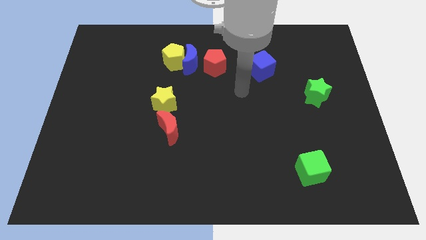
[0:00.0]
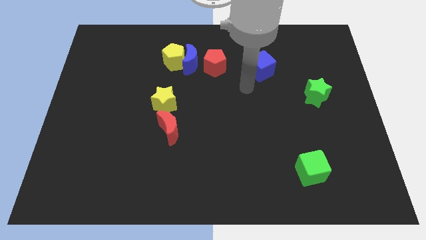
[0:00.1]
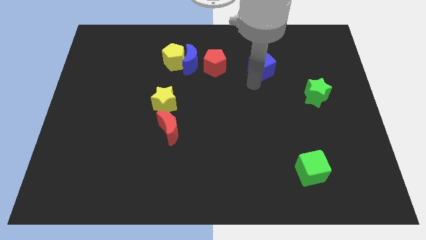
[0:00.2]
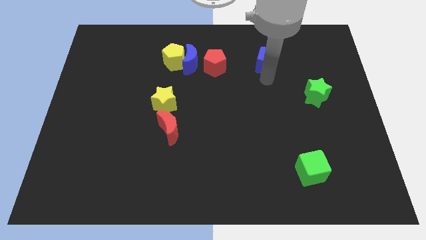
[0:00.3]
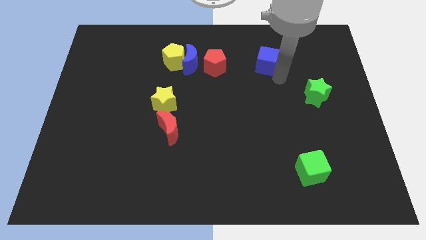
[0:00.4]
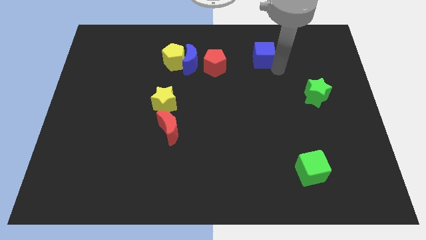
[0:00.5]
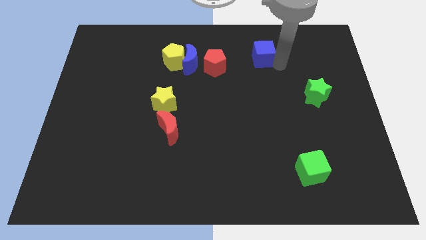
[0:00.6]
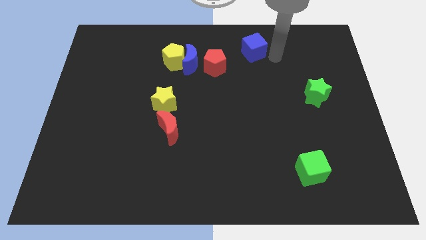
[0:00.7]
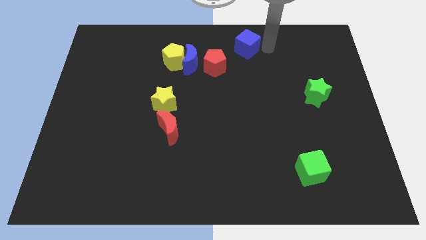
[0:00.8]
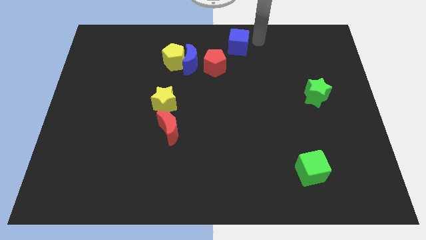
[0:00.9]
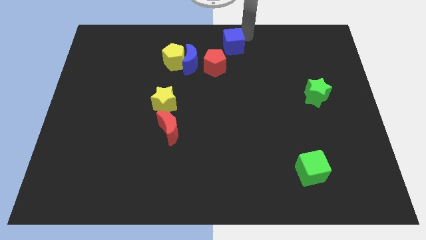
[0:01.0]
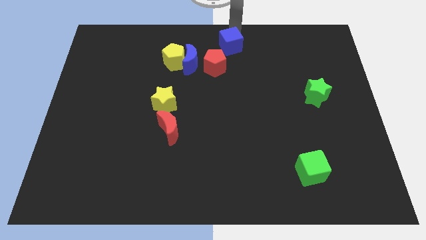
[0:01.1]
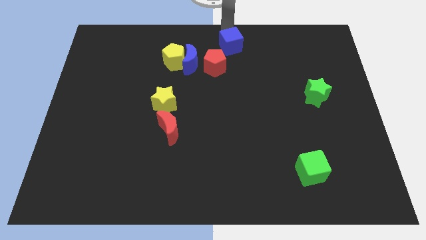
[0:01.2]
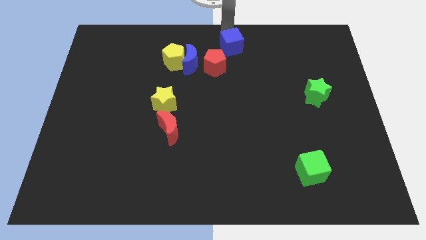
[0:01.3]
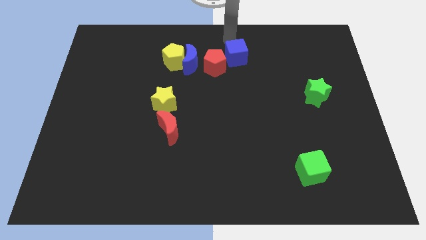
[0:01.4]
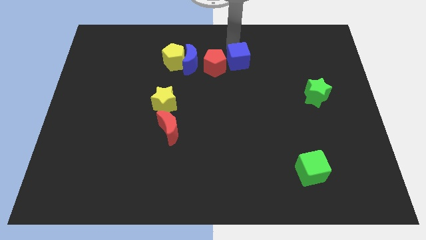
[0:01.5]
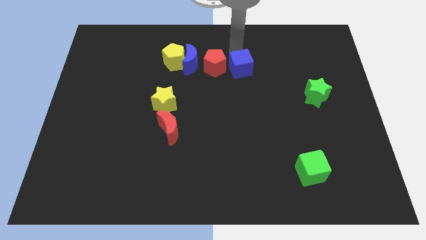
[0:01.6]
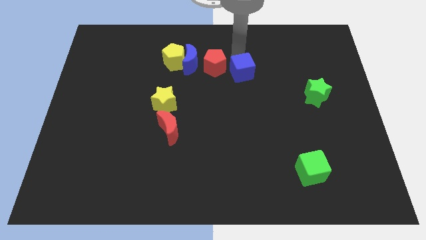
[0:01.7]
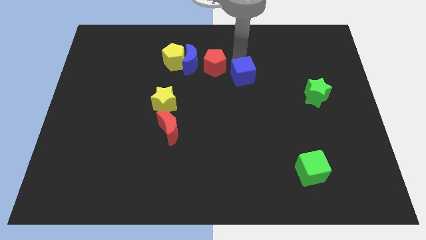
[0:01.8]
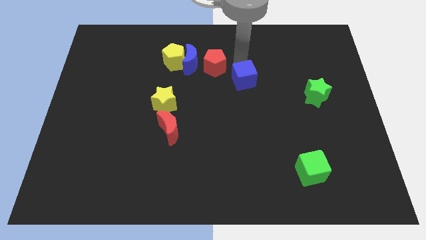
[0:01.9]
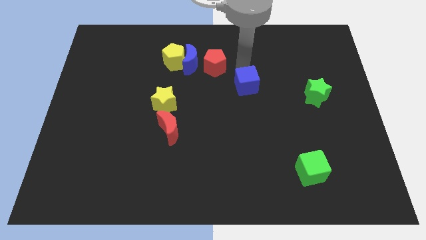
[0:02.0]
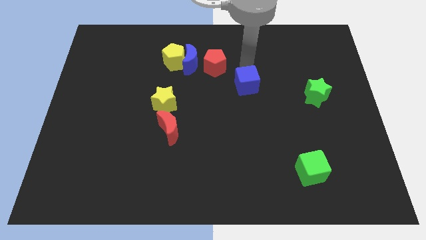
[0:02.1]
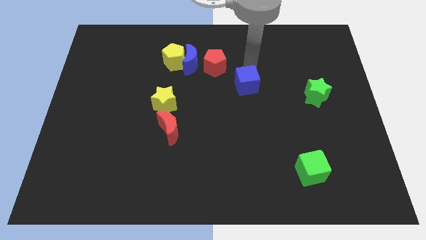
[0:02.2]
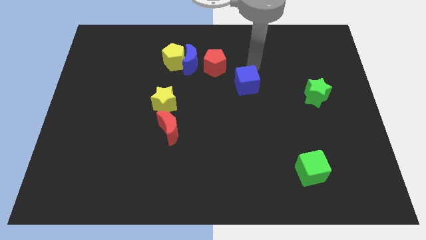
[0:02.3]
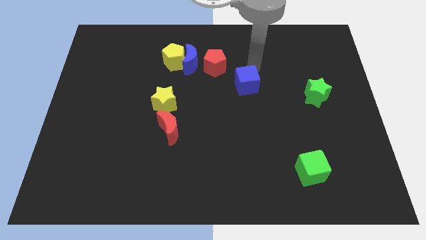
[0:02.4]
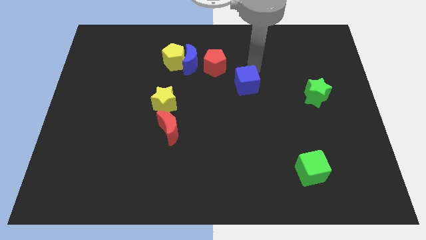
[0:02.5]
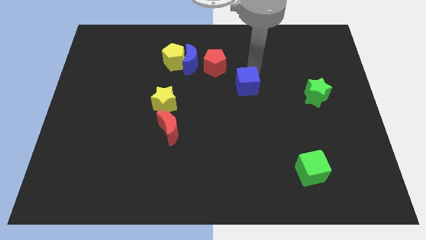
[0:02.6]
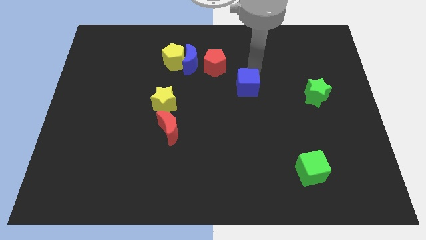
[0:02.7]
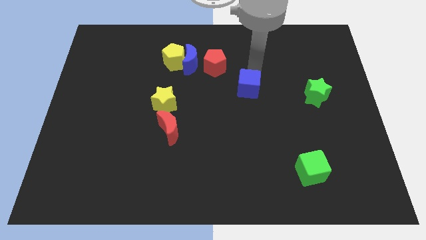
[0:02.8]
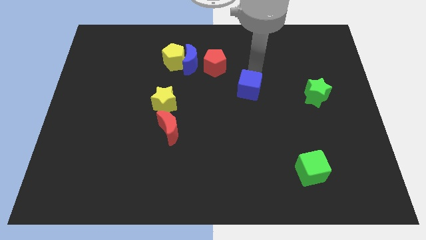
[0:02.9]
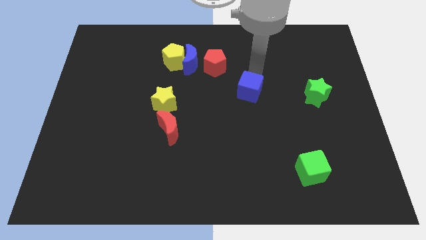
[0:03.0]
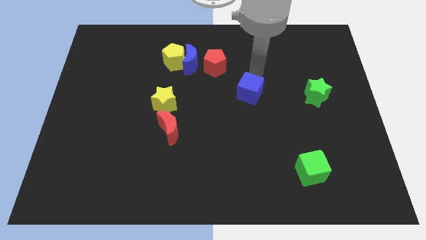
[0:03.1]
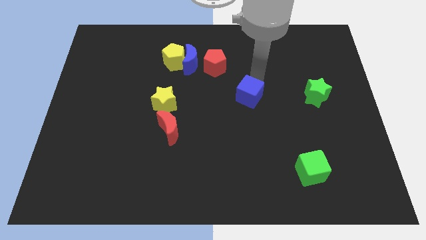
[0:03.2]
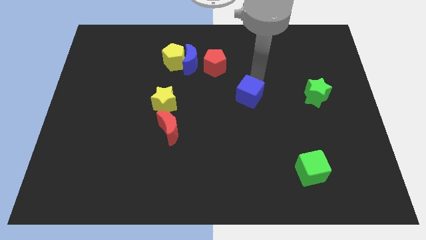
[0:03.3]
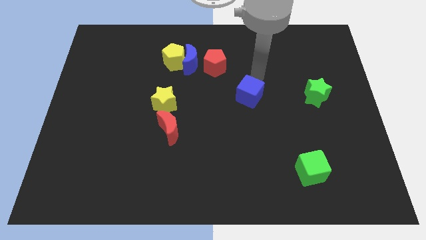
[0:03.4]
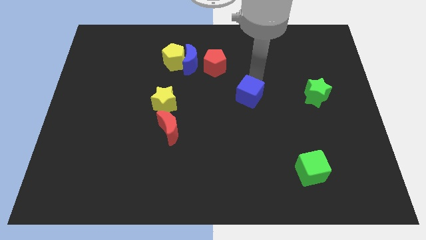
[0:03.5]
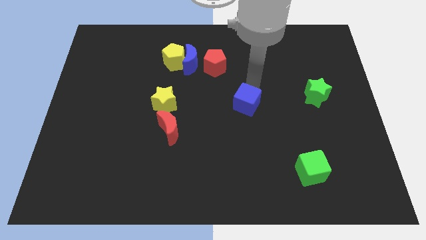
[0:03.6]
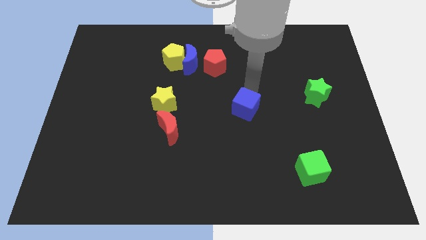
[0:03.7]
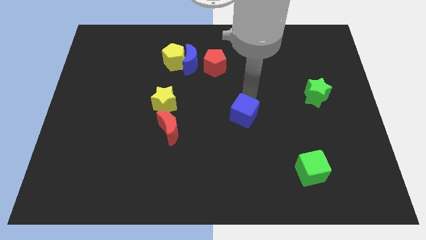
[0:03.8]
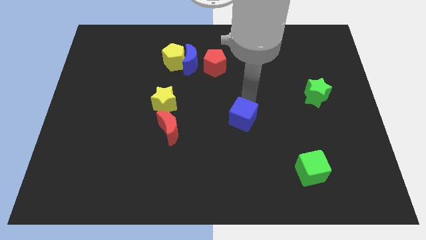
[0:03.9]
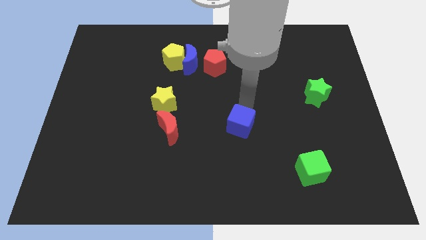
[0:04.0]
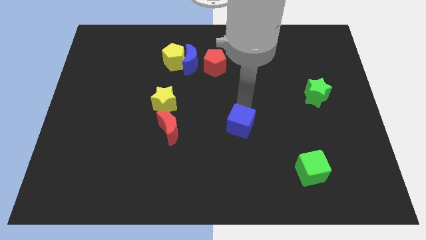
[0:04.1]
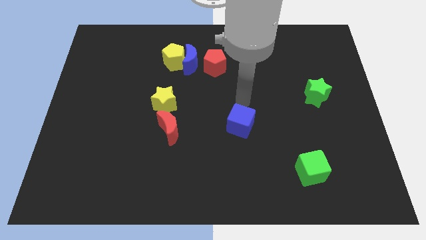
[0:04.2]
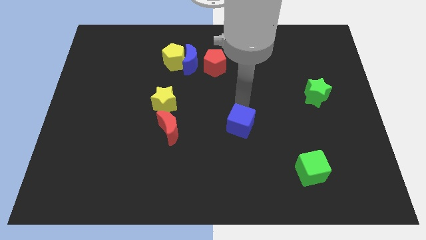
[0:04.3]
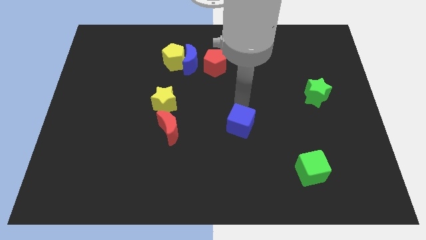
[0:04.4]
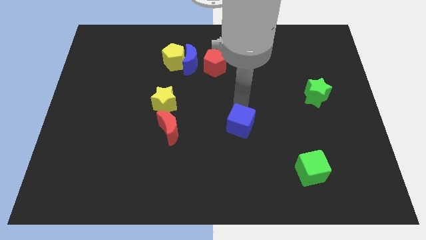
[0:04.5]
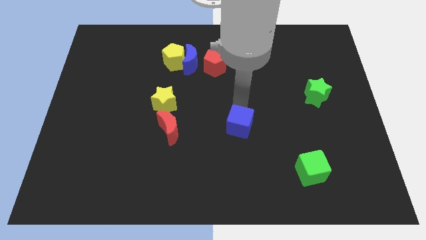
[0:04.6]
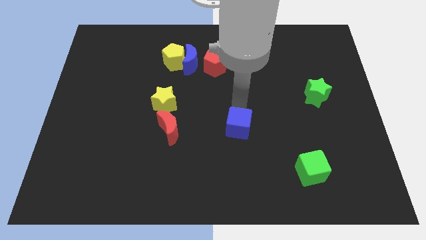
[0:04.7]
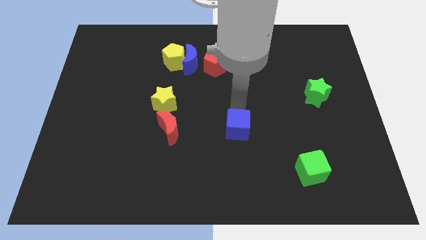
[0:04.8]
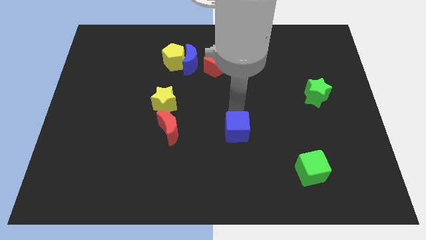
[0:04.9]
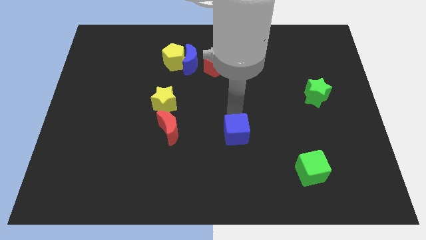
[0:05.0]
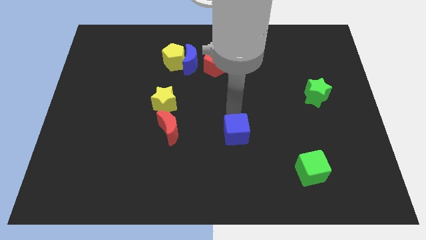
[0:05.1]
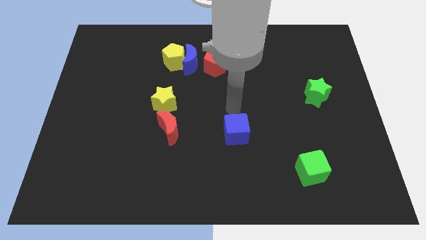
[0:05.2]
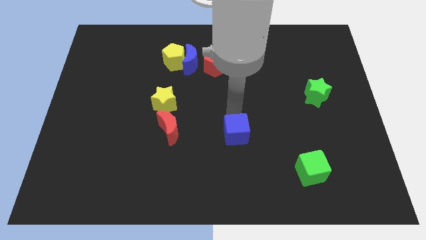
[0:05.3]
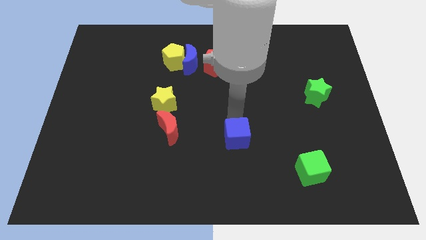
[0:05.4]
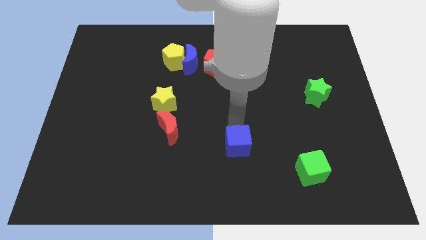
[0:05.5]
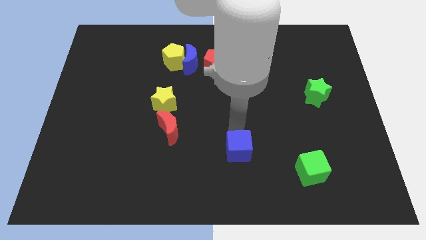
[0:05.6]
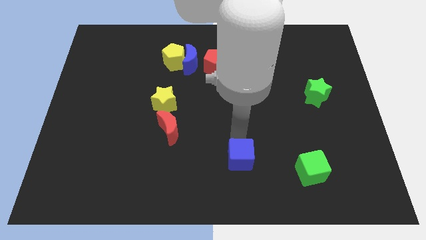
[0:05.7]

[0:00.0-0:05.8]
move the blue cube to the bottom side

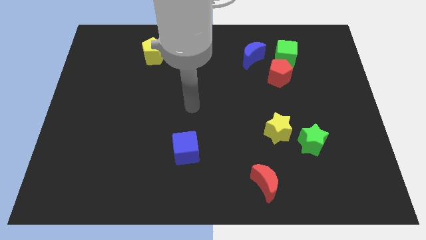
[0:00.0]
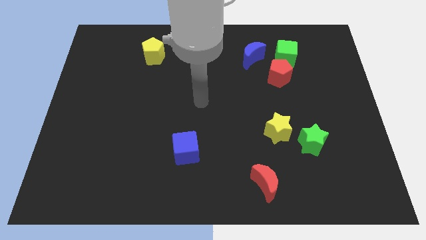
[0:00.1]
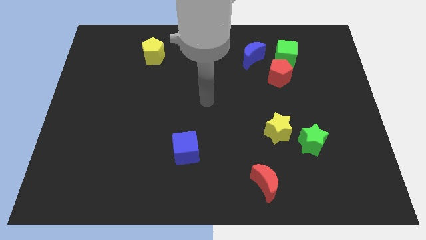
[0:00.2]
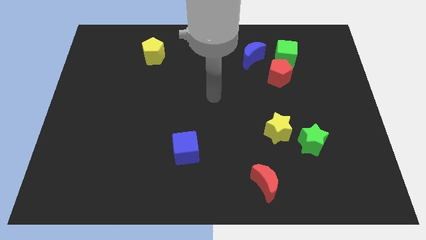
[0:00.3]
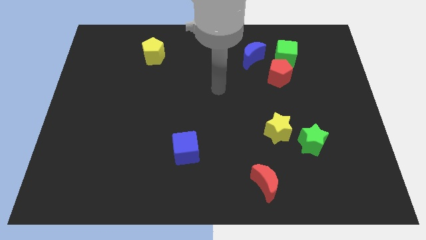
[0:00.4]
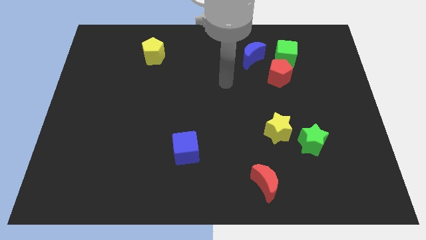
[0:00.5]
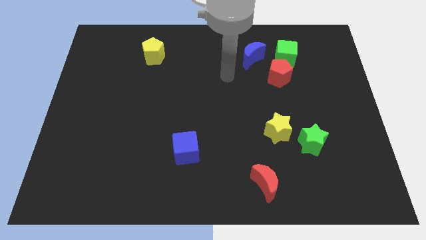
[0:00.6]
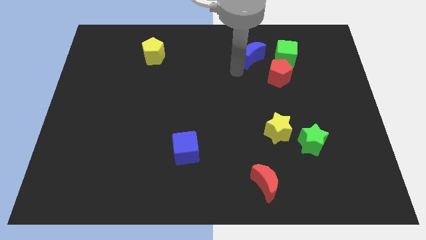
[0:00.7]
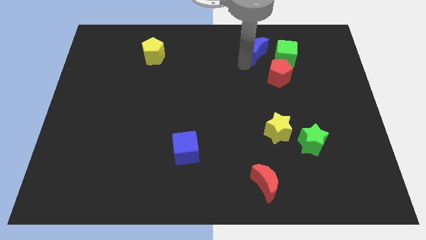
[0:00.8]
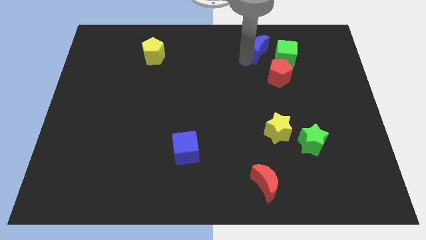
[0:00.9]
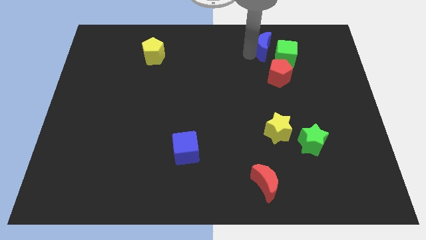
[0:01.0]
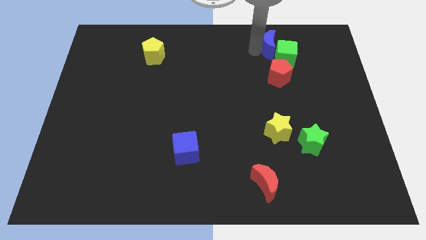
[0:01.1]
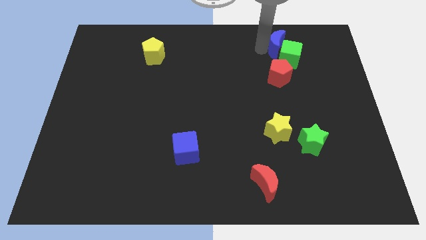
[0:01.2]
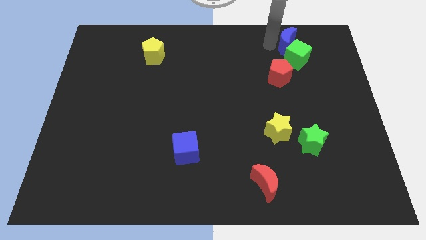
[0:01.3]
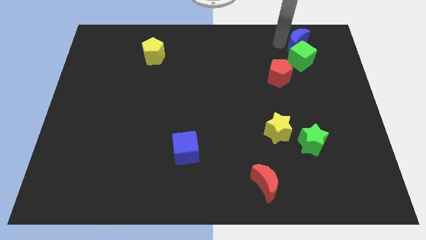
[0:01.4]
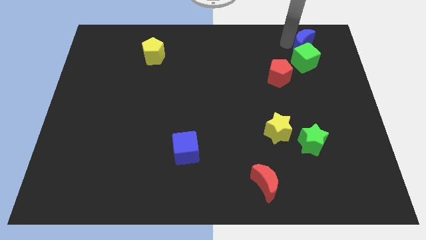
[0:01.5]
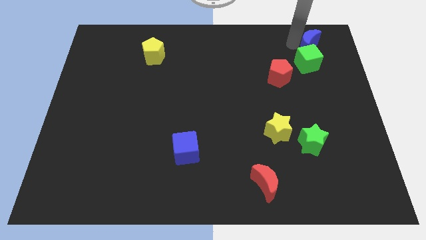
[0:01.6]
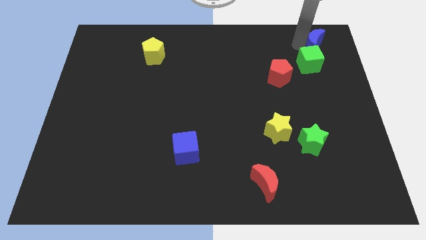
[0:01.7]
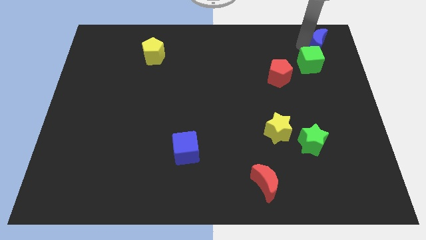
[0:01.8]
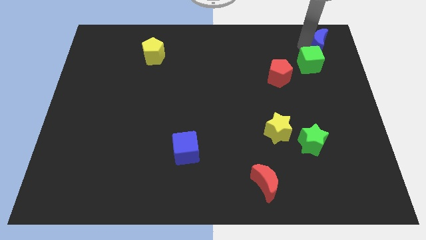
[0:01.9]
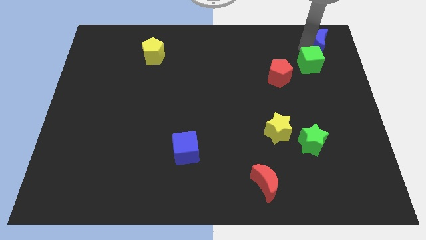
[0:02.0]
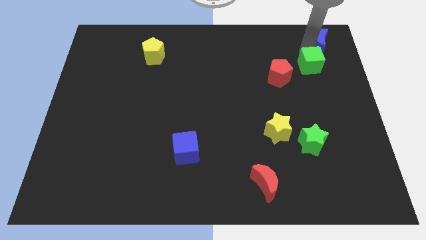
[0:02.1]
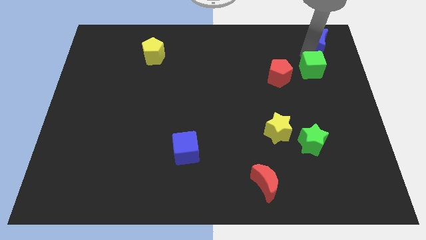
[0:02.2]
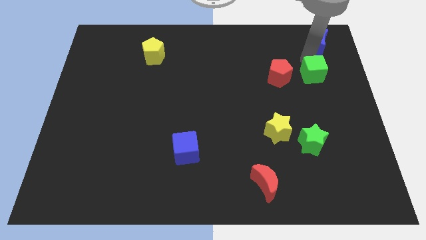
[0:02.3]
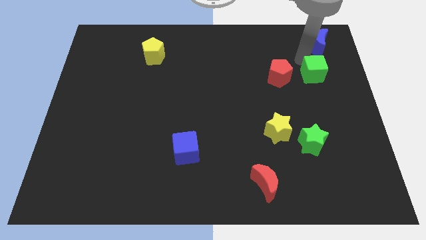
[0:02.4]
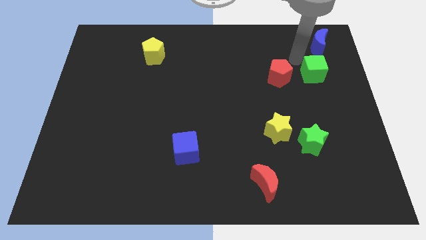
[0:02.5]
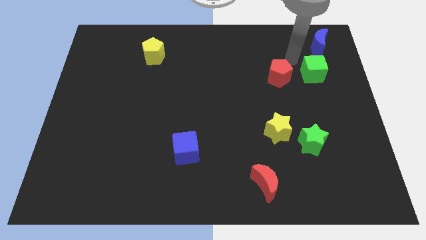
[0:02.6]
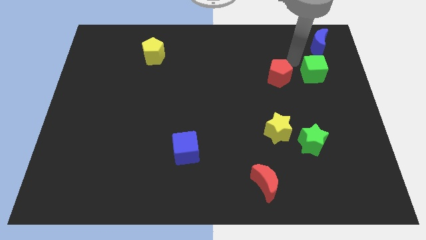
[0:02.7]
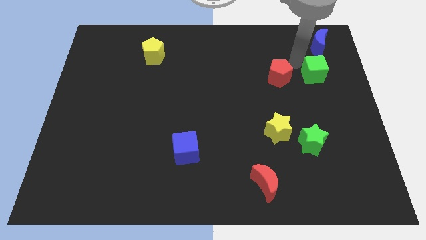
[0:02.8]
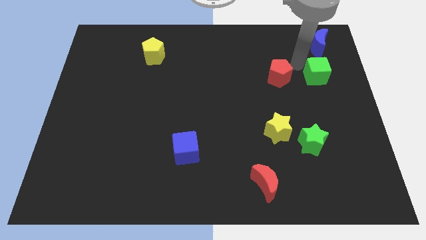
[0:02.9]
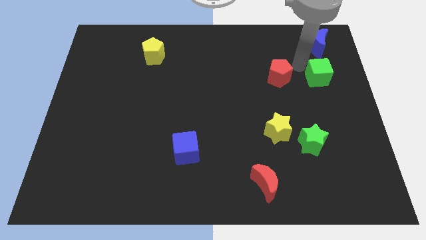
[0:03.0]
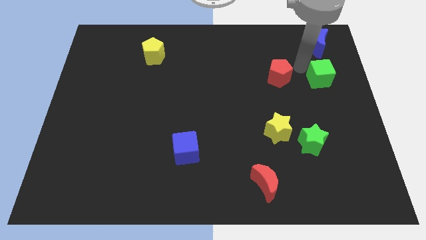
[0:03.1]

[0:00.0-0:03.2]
put the green cube to the center right
